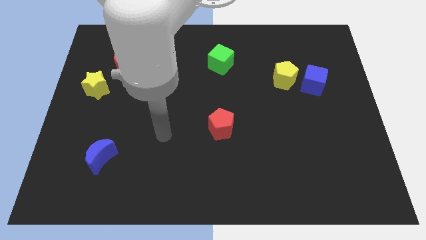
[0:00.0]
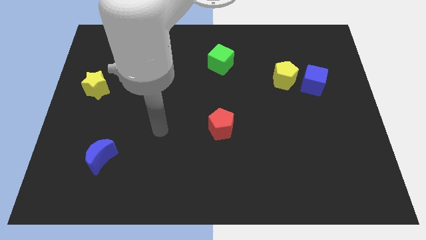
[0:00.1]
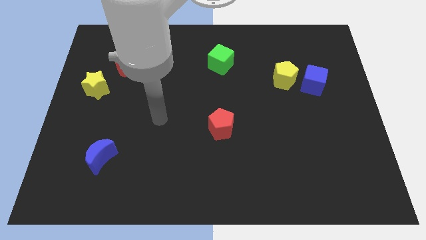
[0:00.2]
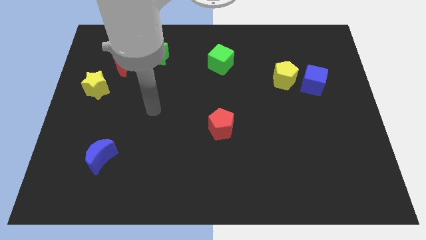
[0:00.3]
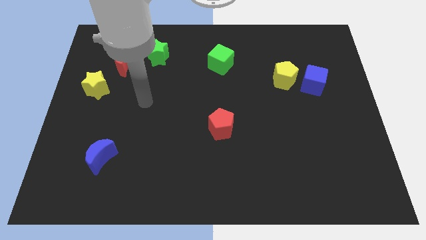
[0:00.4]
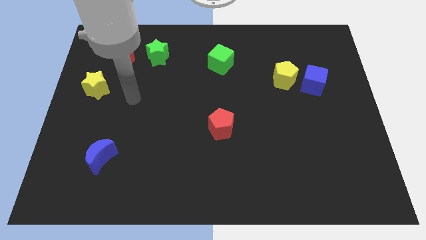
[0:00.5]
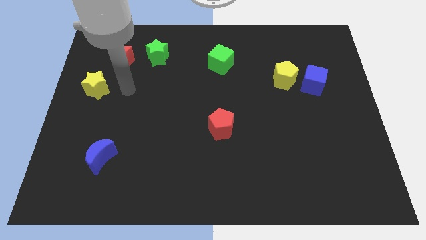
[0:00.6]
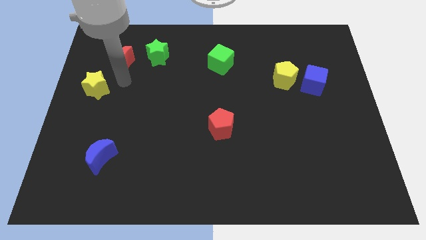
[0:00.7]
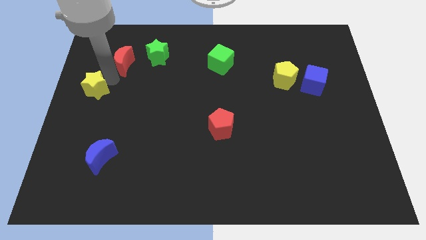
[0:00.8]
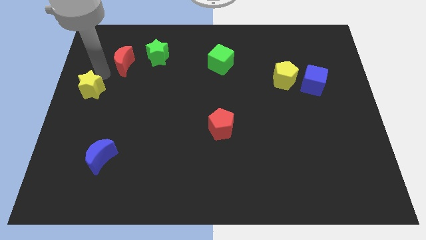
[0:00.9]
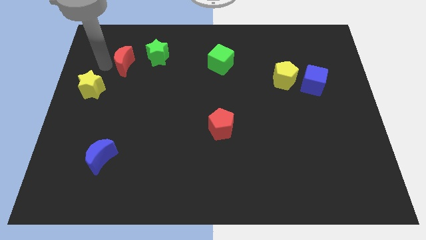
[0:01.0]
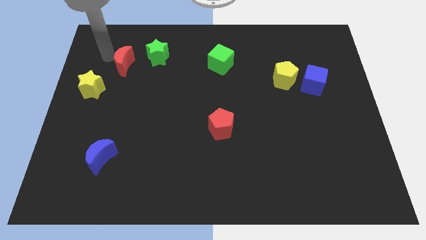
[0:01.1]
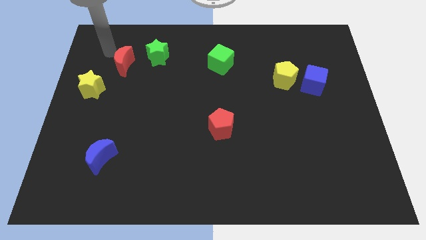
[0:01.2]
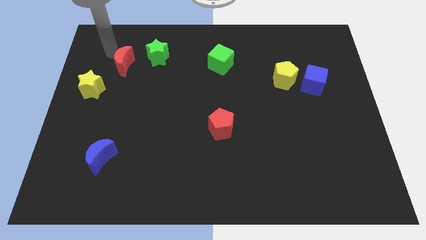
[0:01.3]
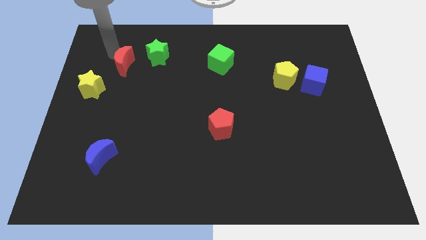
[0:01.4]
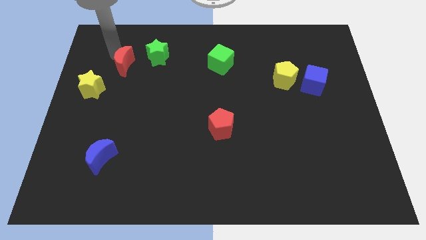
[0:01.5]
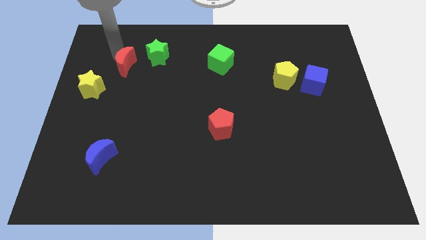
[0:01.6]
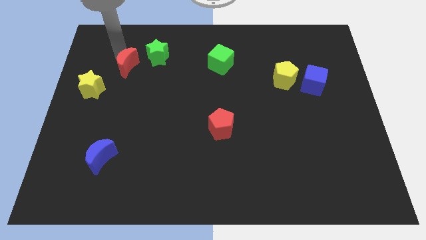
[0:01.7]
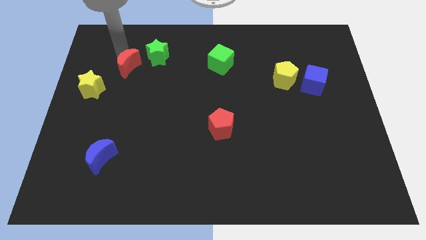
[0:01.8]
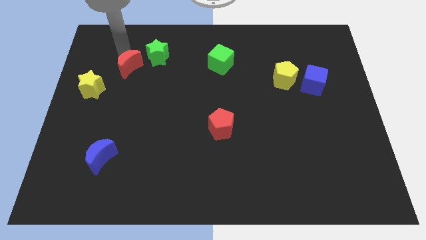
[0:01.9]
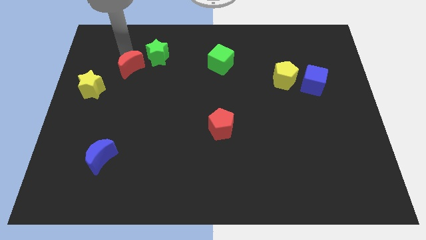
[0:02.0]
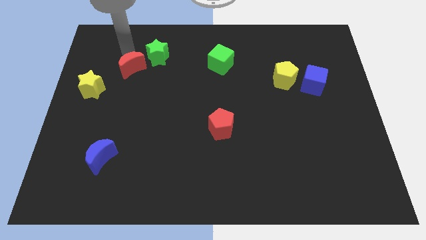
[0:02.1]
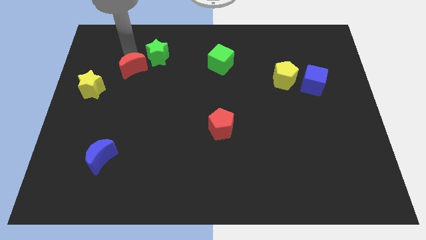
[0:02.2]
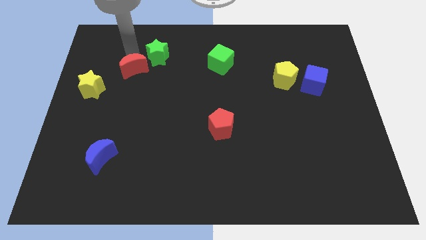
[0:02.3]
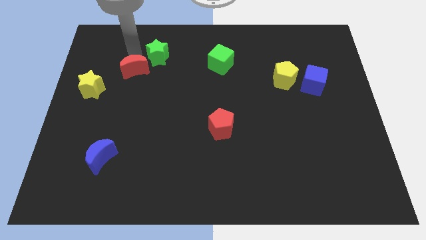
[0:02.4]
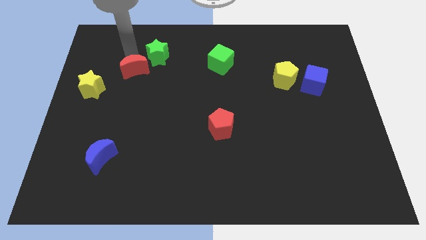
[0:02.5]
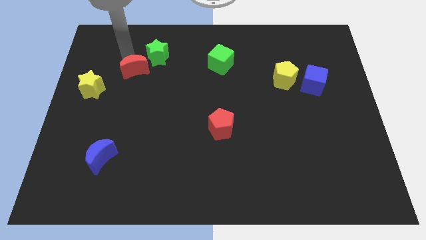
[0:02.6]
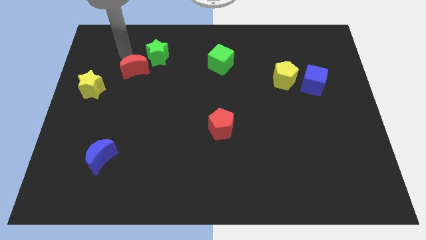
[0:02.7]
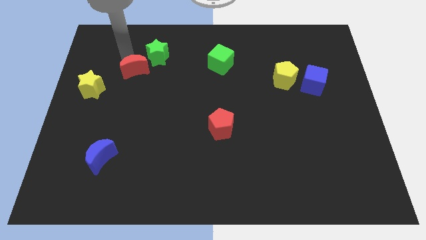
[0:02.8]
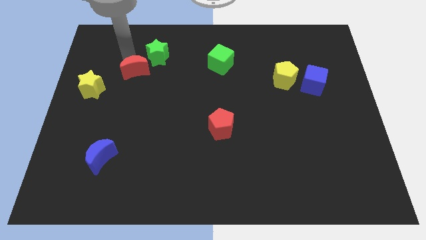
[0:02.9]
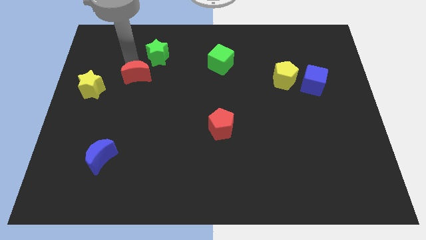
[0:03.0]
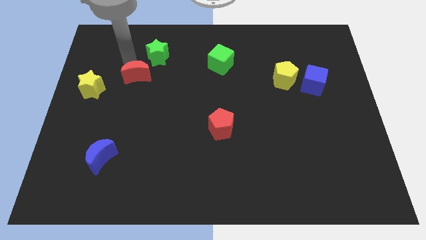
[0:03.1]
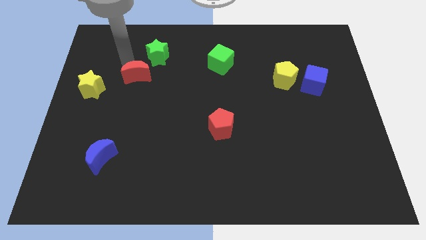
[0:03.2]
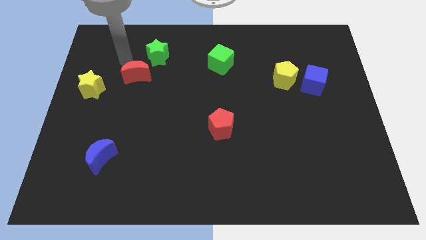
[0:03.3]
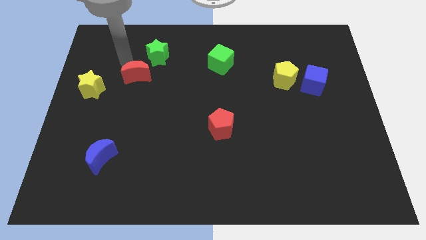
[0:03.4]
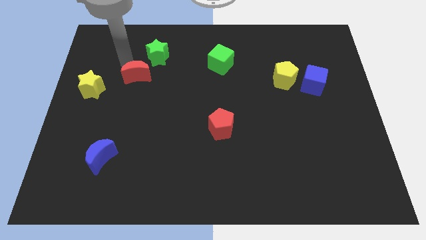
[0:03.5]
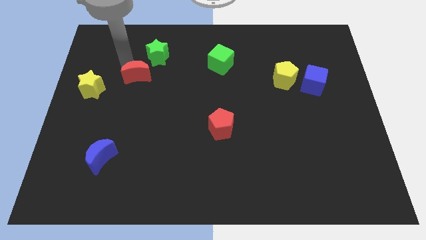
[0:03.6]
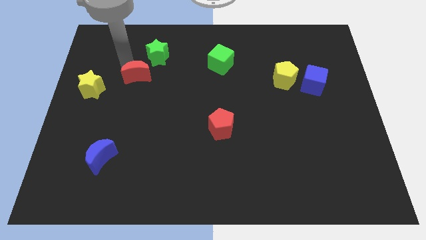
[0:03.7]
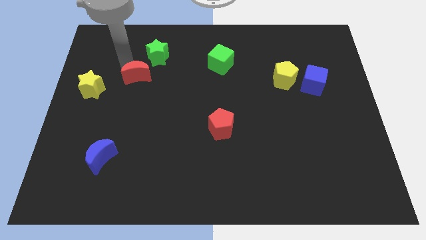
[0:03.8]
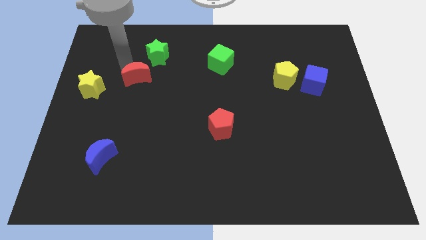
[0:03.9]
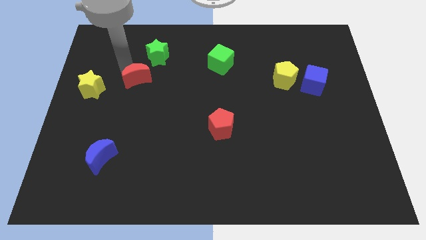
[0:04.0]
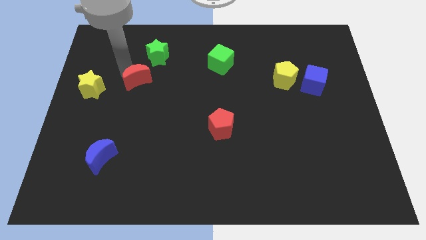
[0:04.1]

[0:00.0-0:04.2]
push the red moon down and right diagonally a little

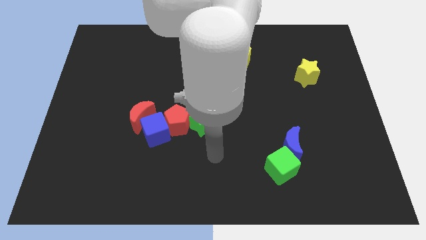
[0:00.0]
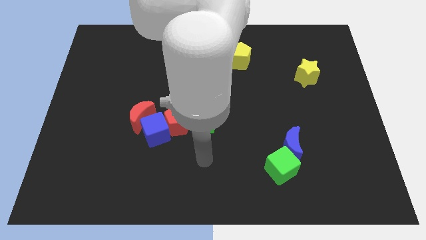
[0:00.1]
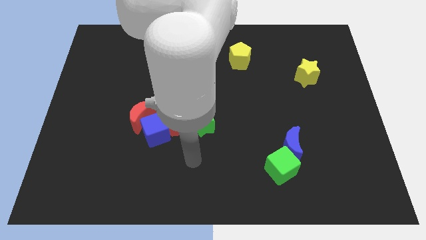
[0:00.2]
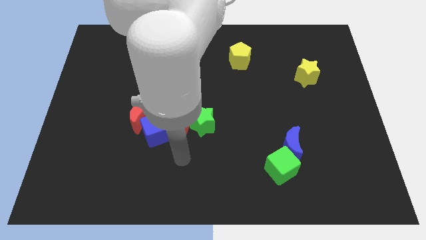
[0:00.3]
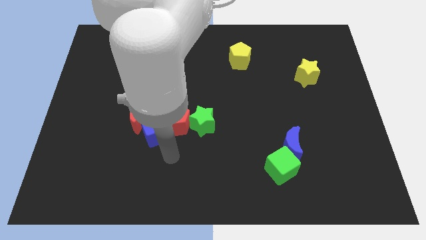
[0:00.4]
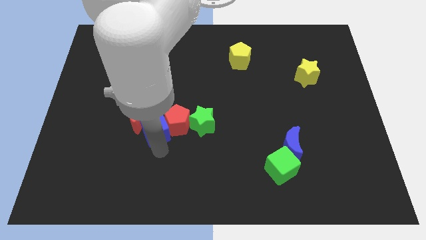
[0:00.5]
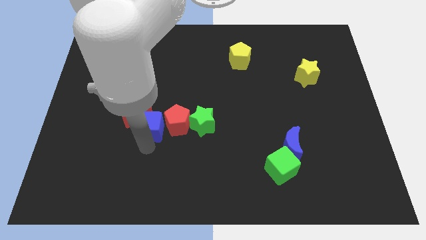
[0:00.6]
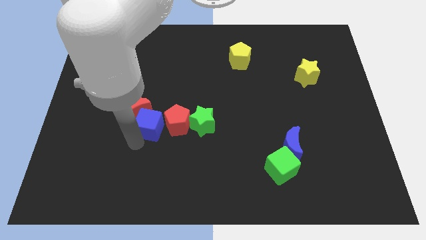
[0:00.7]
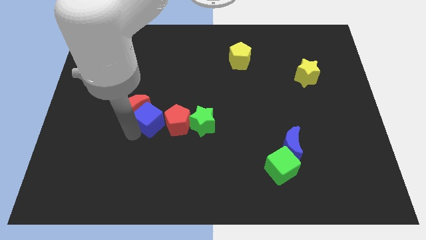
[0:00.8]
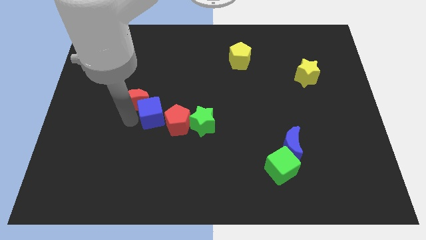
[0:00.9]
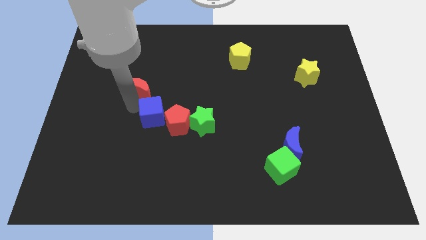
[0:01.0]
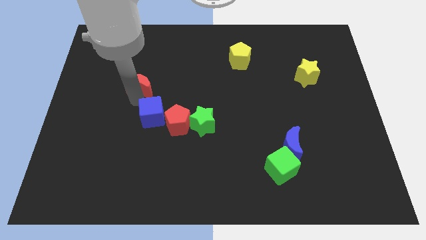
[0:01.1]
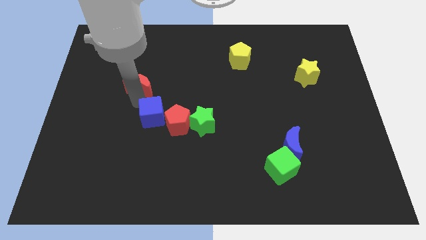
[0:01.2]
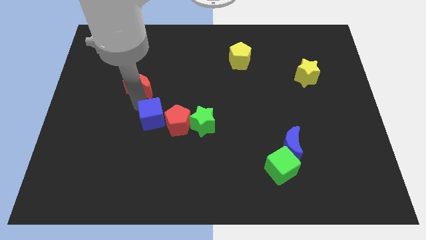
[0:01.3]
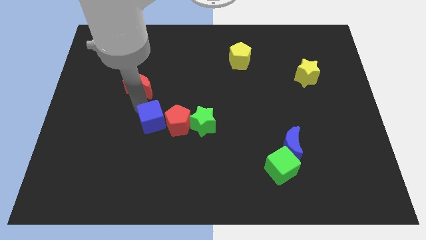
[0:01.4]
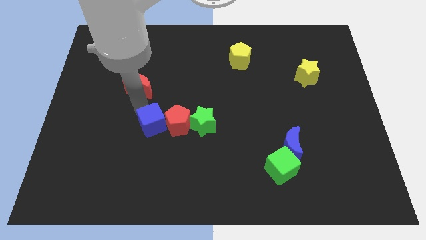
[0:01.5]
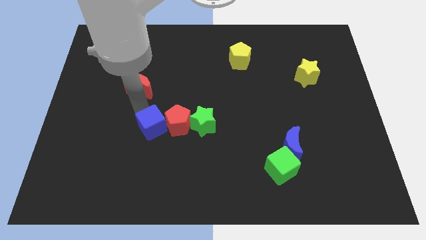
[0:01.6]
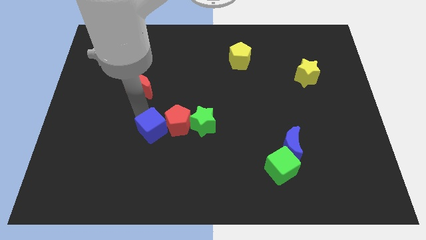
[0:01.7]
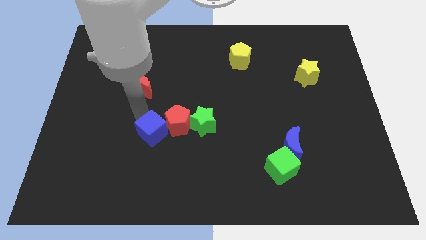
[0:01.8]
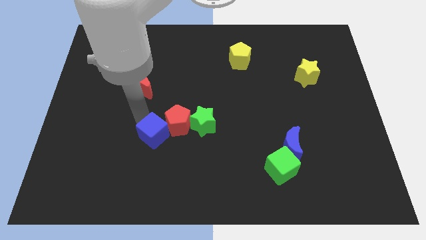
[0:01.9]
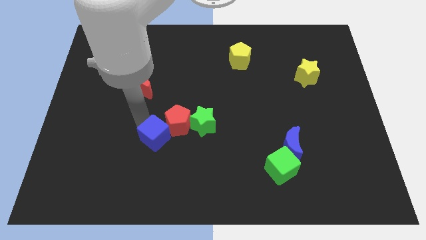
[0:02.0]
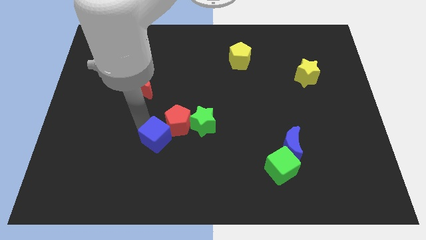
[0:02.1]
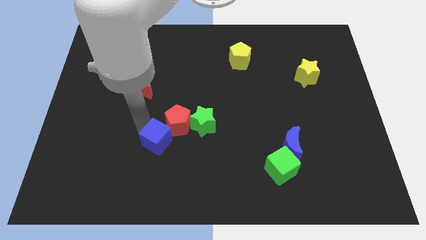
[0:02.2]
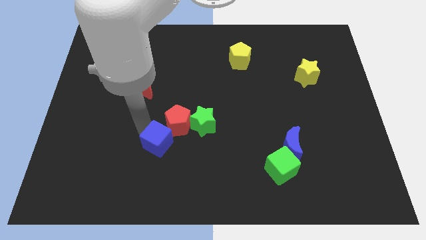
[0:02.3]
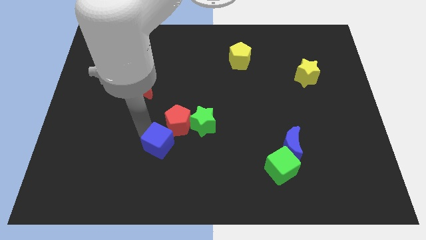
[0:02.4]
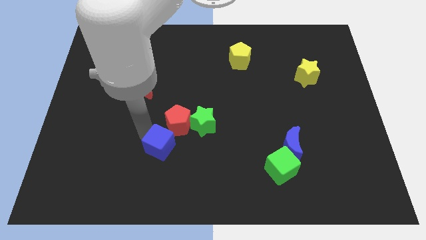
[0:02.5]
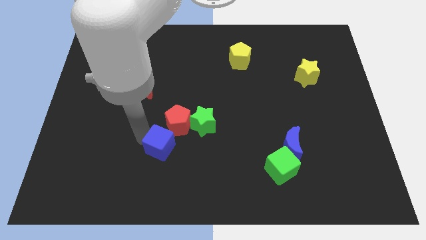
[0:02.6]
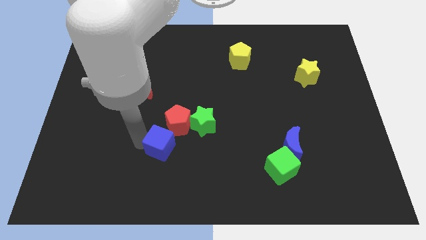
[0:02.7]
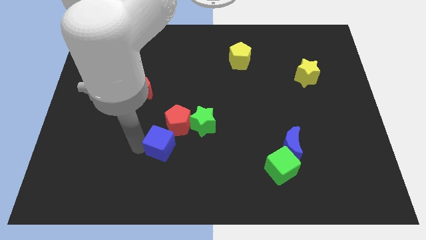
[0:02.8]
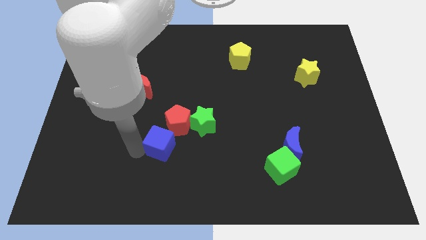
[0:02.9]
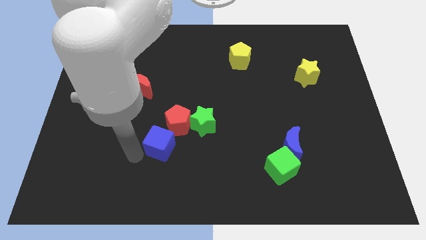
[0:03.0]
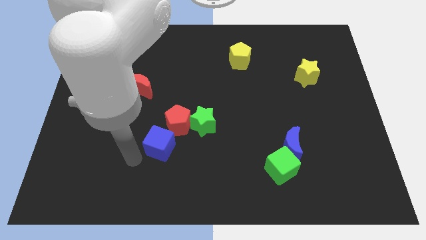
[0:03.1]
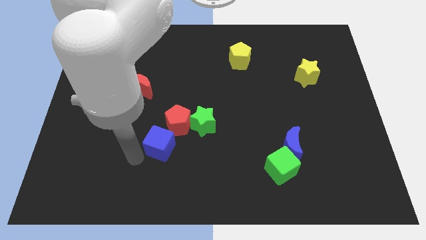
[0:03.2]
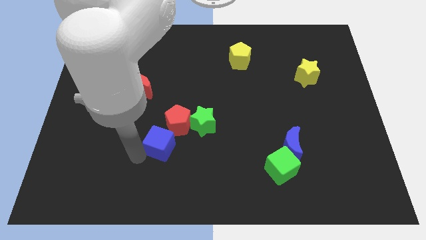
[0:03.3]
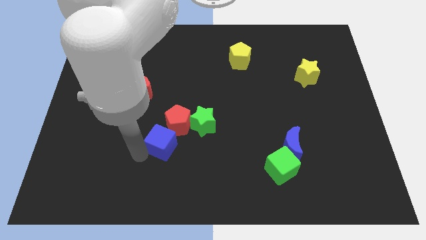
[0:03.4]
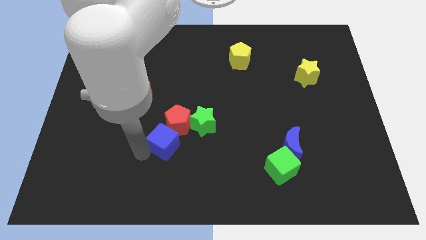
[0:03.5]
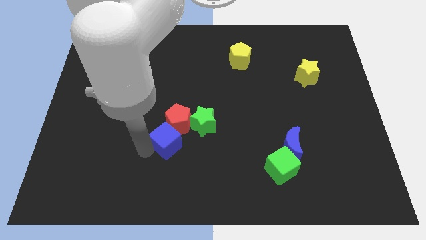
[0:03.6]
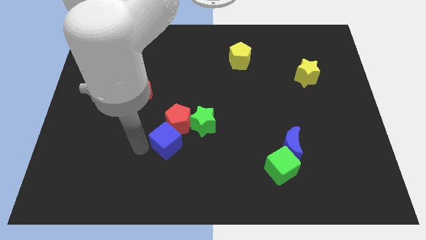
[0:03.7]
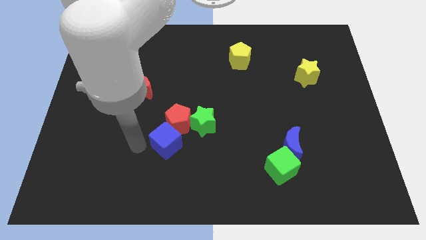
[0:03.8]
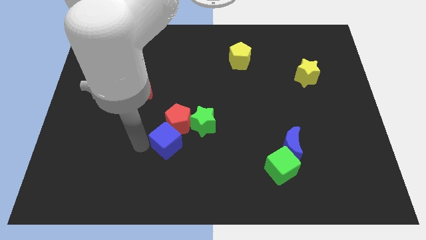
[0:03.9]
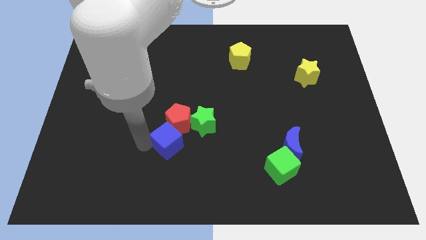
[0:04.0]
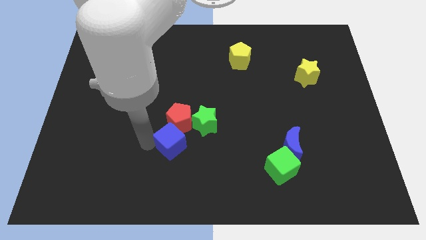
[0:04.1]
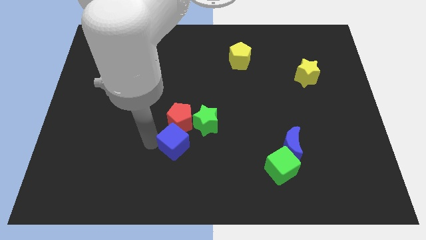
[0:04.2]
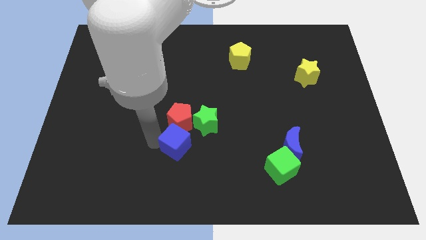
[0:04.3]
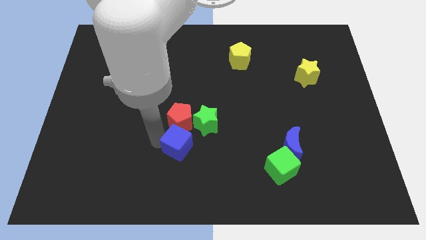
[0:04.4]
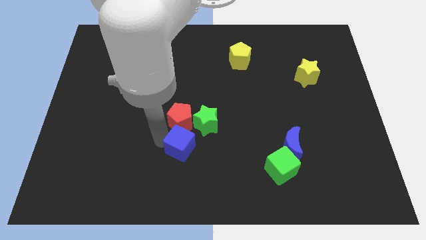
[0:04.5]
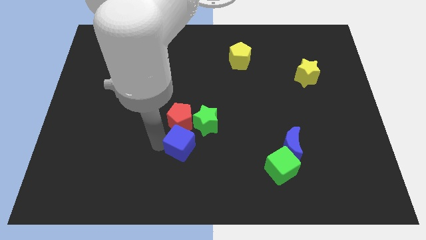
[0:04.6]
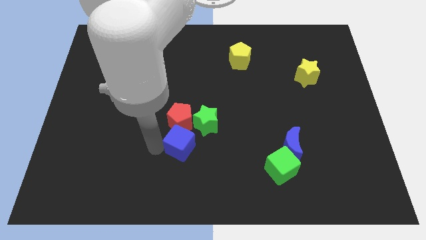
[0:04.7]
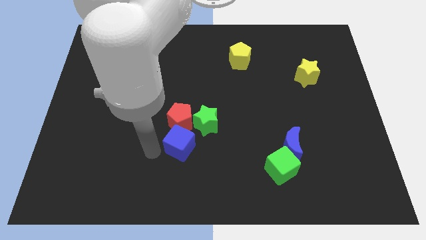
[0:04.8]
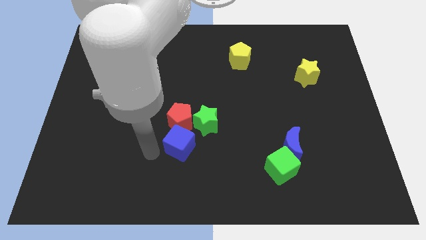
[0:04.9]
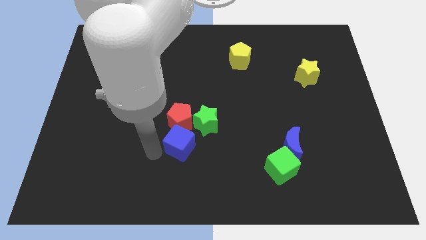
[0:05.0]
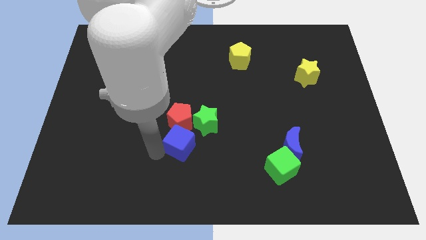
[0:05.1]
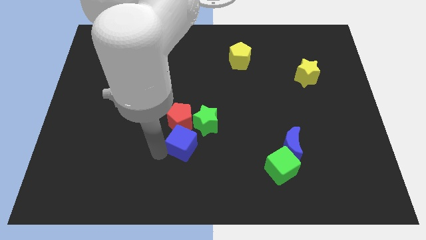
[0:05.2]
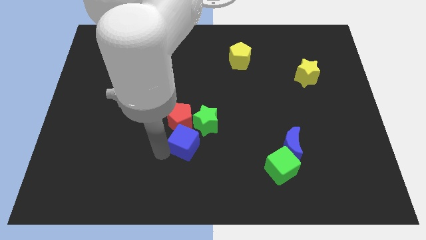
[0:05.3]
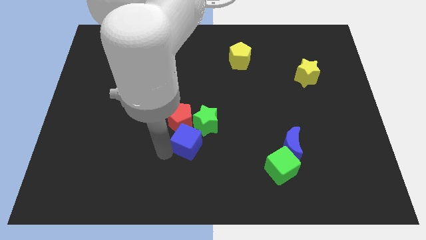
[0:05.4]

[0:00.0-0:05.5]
slide the blue cube a little bit to the right
